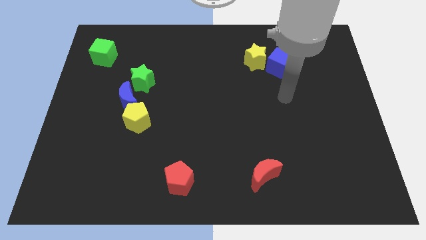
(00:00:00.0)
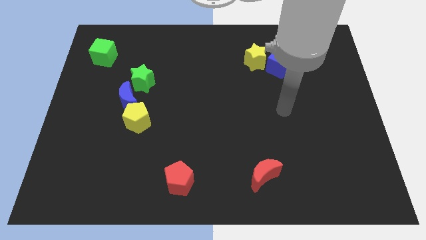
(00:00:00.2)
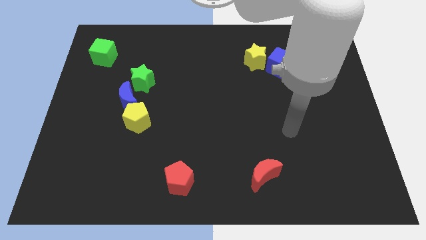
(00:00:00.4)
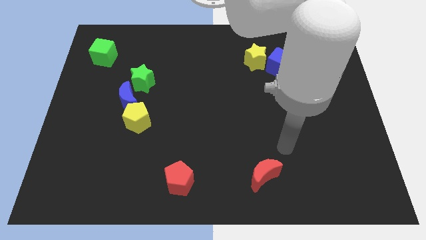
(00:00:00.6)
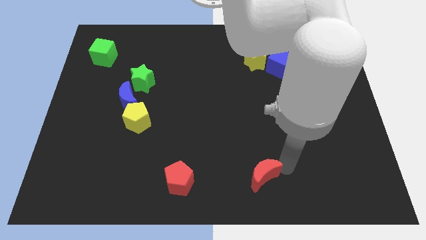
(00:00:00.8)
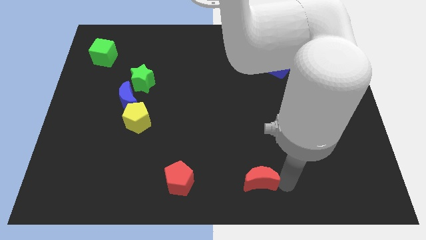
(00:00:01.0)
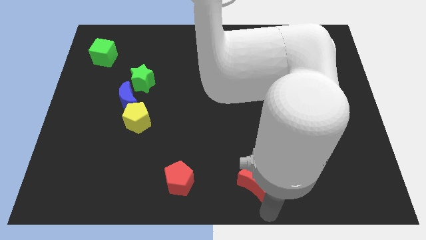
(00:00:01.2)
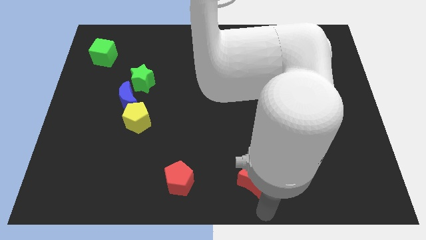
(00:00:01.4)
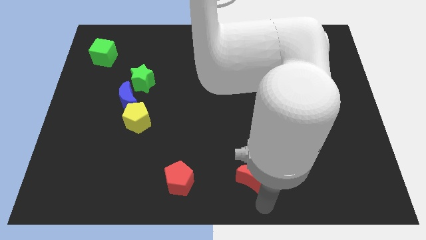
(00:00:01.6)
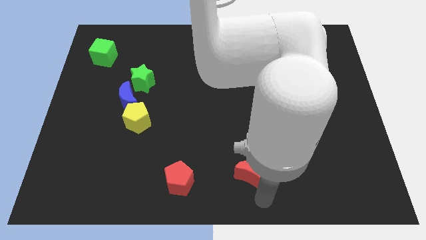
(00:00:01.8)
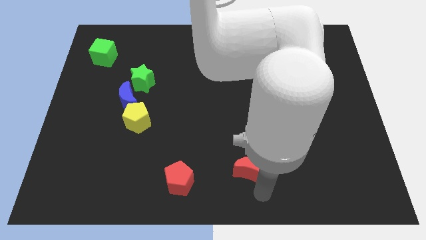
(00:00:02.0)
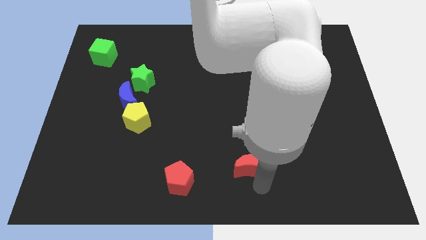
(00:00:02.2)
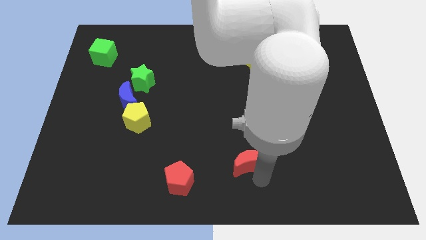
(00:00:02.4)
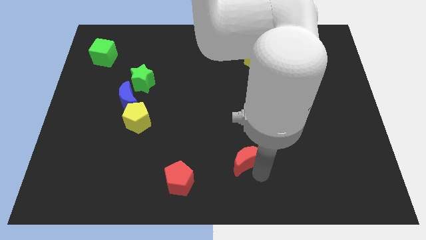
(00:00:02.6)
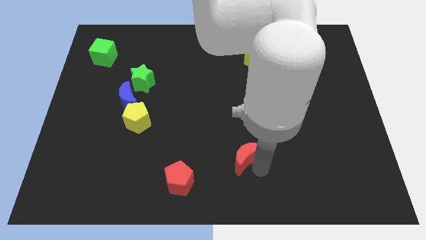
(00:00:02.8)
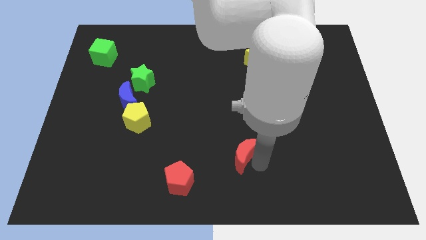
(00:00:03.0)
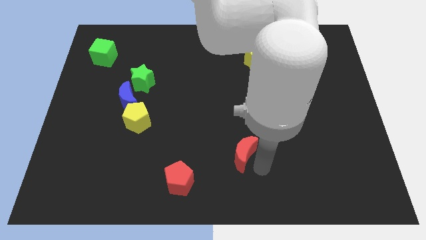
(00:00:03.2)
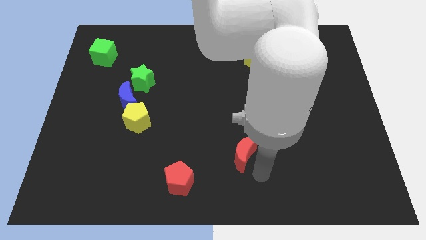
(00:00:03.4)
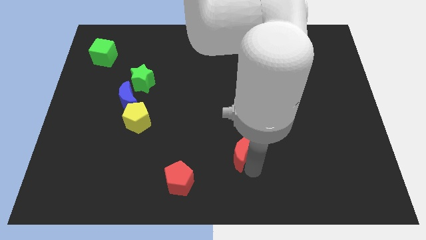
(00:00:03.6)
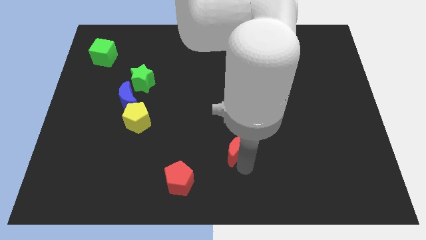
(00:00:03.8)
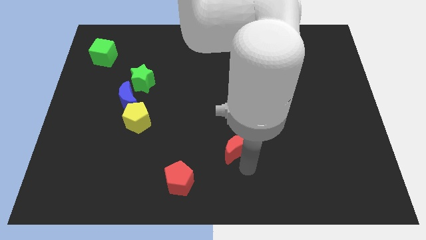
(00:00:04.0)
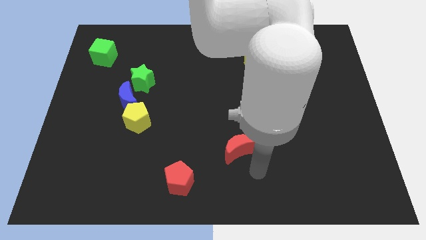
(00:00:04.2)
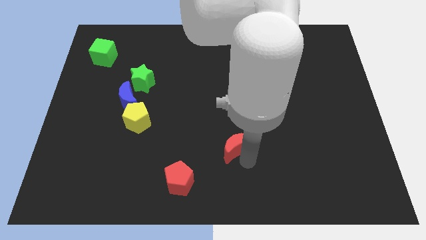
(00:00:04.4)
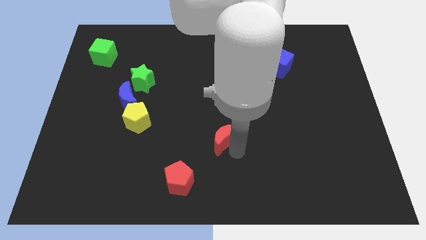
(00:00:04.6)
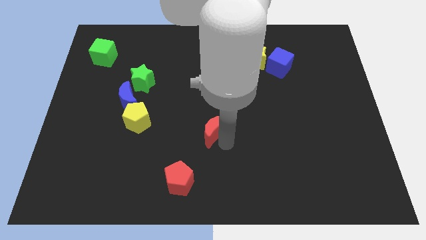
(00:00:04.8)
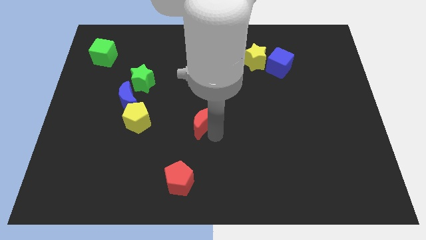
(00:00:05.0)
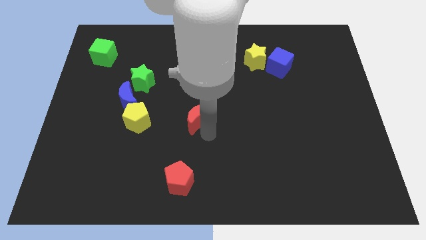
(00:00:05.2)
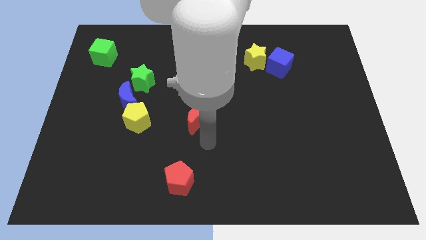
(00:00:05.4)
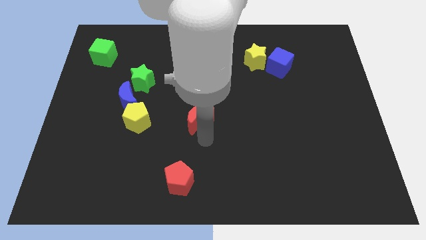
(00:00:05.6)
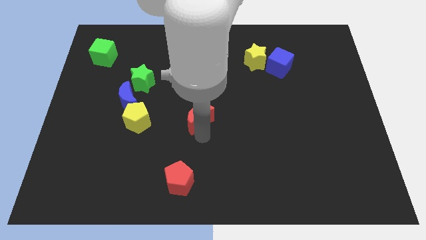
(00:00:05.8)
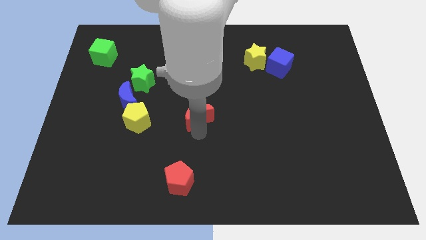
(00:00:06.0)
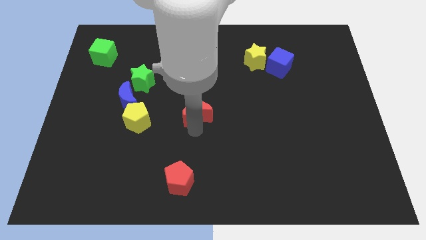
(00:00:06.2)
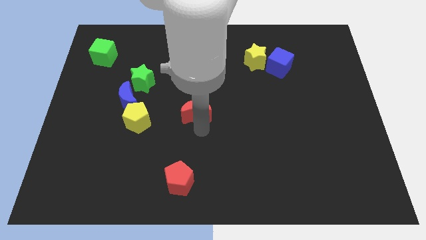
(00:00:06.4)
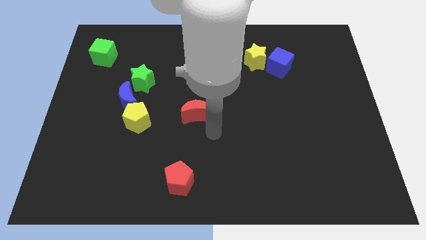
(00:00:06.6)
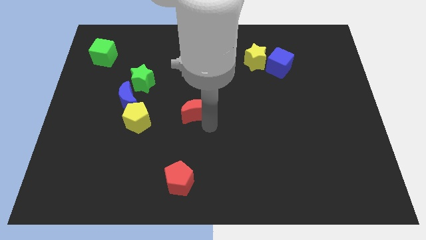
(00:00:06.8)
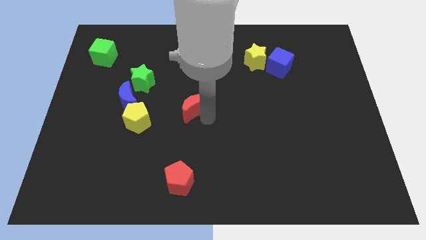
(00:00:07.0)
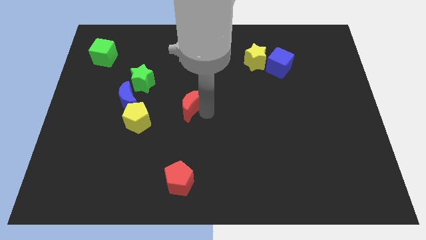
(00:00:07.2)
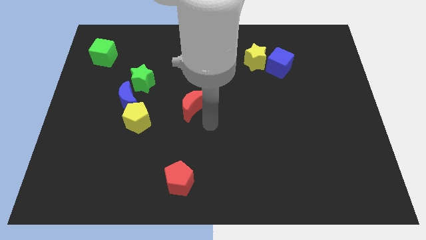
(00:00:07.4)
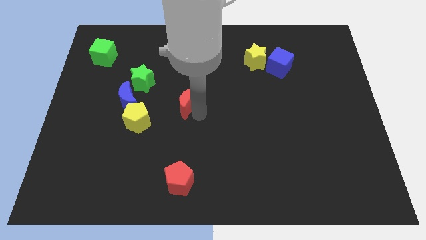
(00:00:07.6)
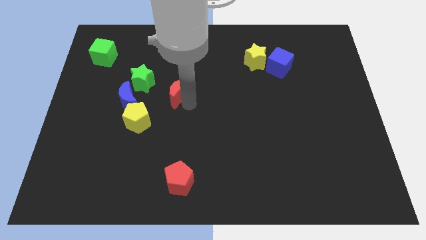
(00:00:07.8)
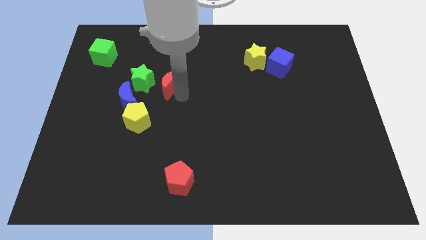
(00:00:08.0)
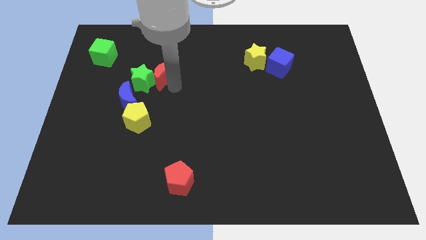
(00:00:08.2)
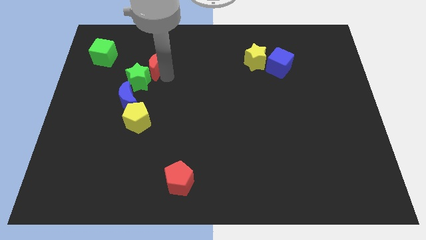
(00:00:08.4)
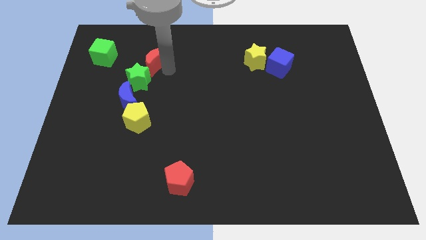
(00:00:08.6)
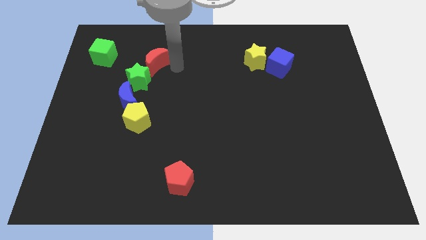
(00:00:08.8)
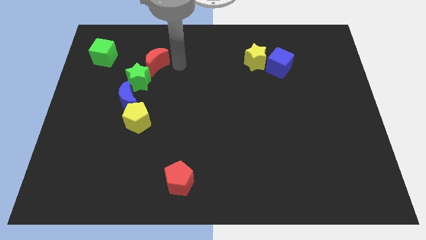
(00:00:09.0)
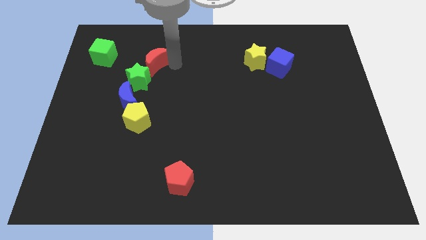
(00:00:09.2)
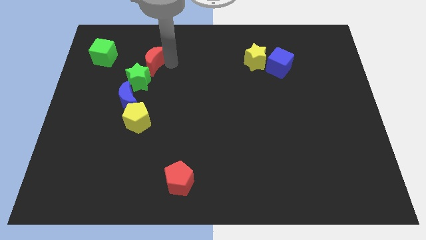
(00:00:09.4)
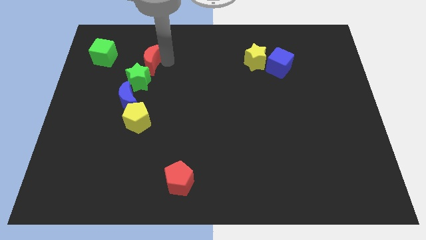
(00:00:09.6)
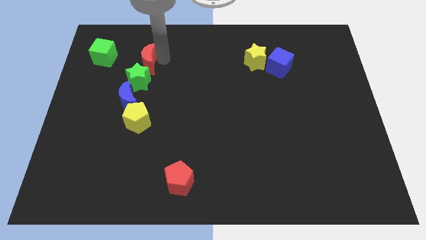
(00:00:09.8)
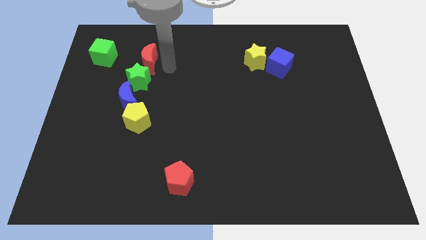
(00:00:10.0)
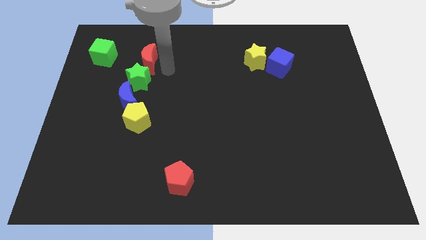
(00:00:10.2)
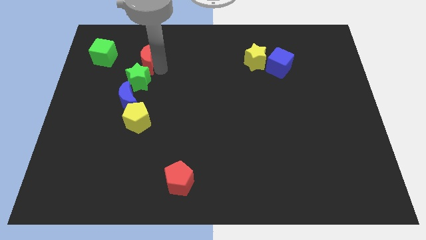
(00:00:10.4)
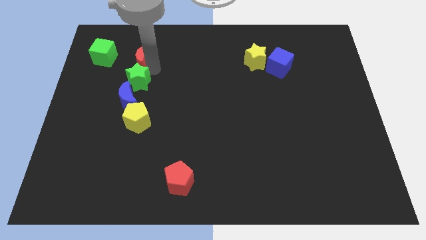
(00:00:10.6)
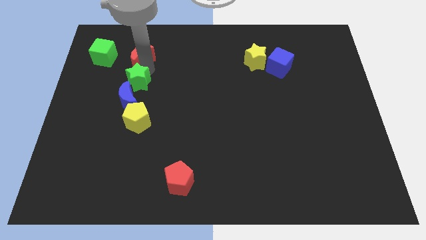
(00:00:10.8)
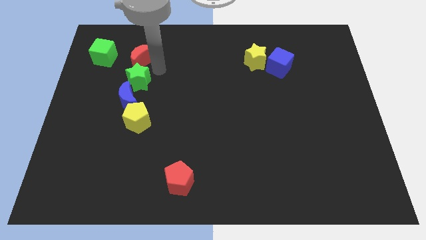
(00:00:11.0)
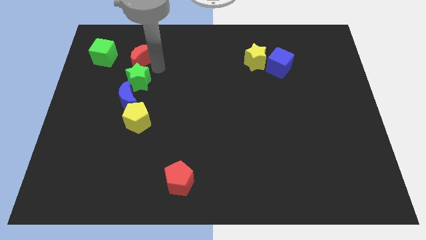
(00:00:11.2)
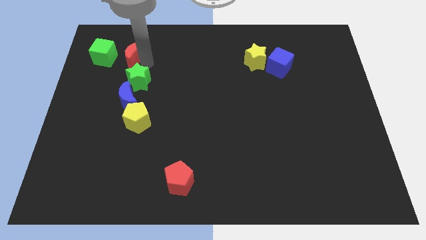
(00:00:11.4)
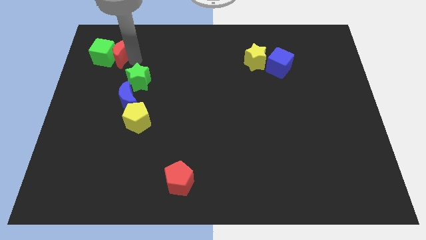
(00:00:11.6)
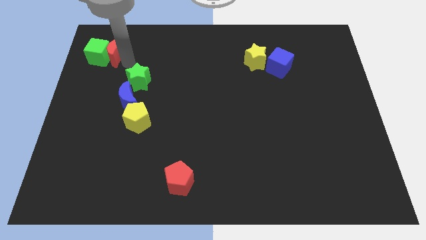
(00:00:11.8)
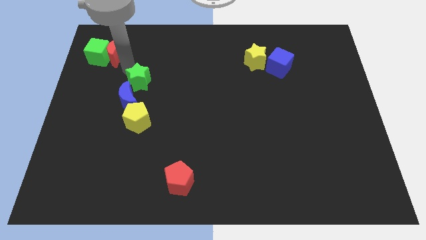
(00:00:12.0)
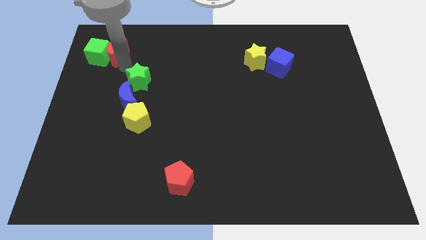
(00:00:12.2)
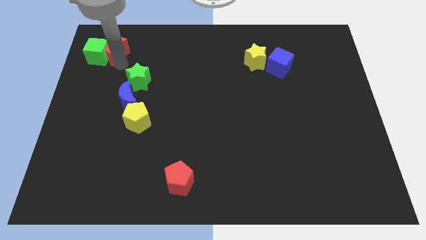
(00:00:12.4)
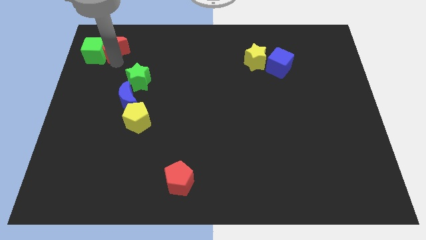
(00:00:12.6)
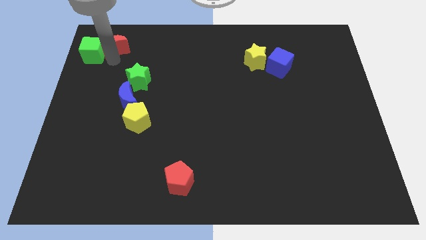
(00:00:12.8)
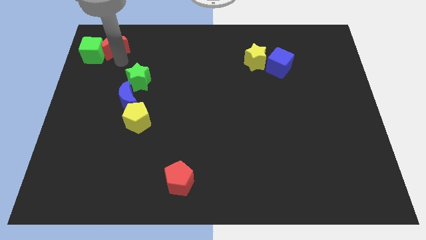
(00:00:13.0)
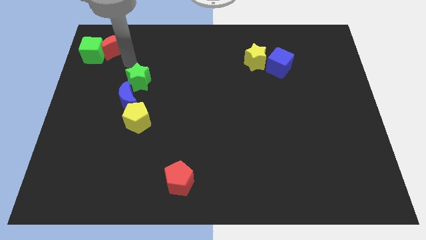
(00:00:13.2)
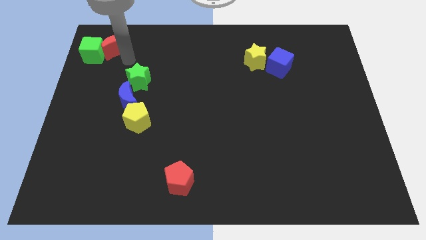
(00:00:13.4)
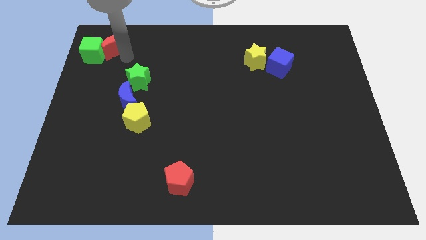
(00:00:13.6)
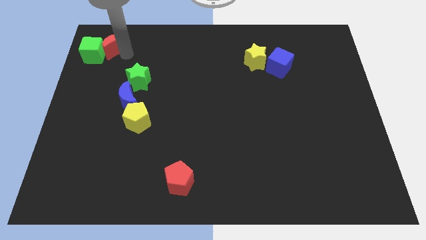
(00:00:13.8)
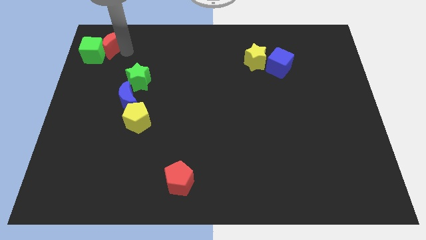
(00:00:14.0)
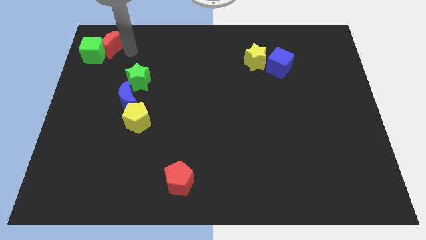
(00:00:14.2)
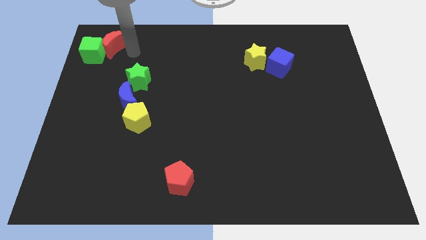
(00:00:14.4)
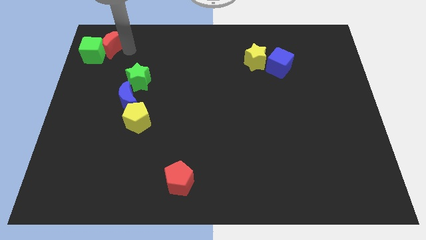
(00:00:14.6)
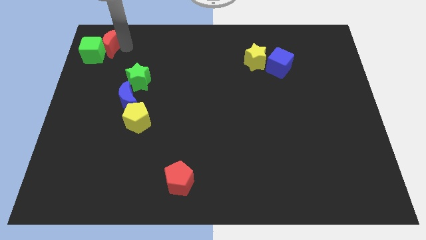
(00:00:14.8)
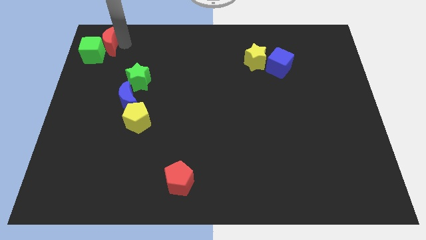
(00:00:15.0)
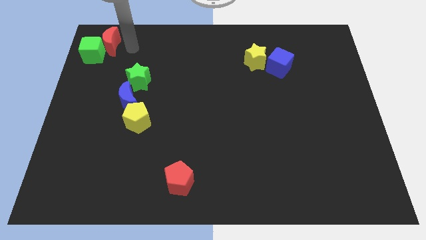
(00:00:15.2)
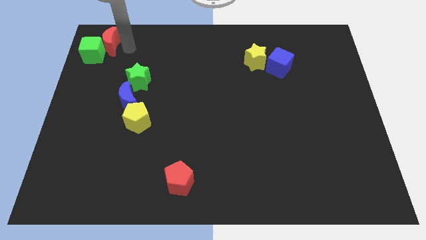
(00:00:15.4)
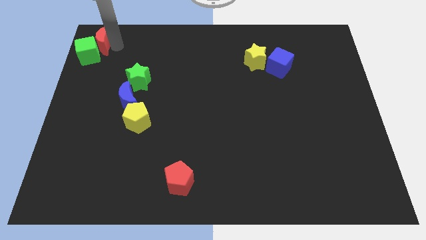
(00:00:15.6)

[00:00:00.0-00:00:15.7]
push the red moon to the top left
